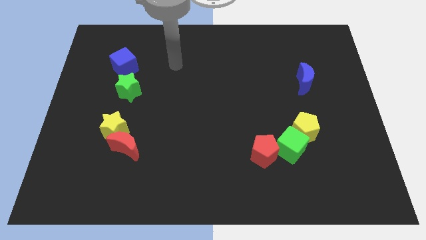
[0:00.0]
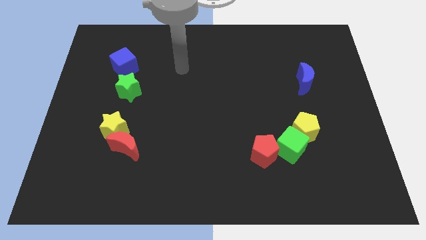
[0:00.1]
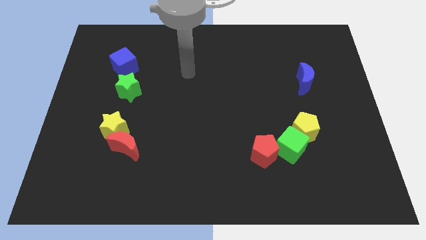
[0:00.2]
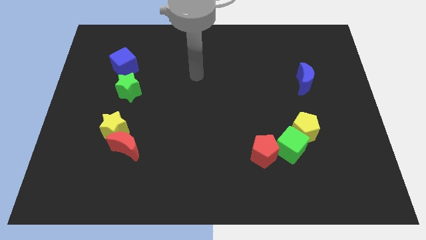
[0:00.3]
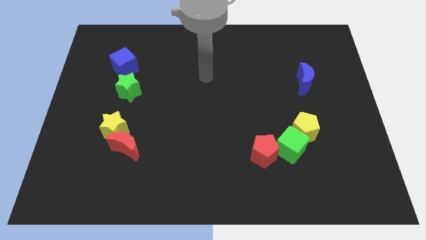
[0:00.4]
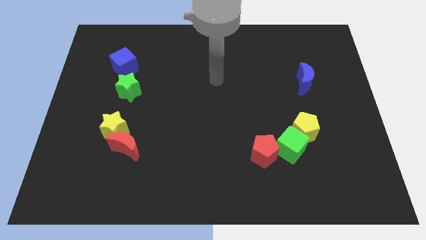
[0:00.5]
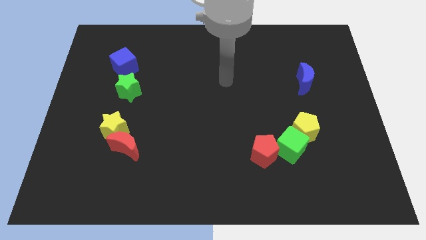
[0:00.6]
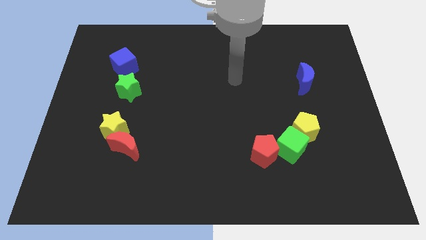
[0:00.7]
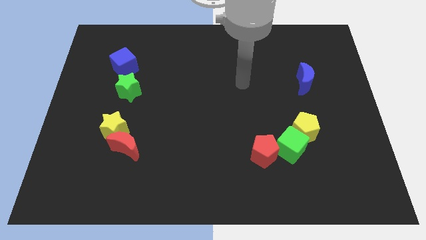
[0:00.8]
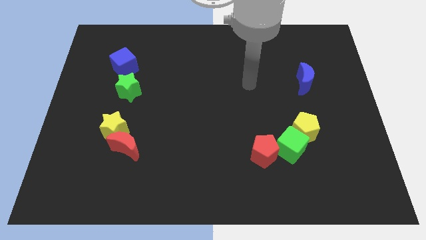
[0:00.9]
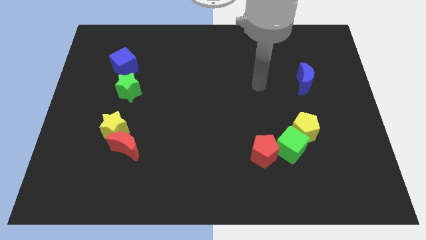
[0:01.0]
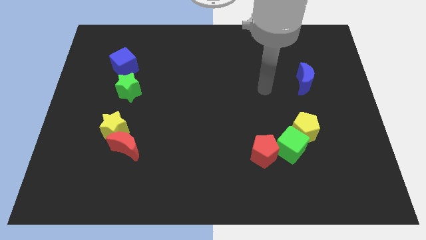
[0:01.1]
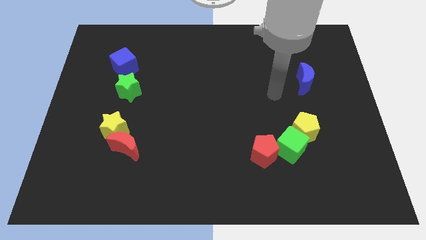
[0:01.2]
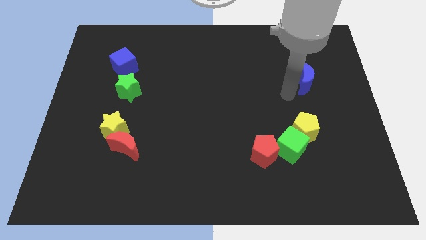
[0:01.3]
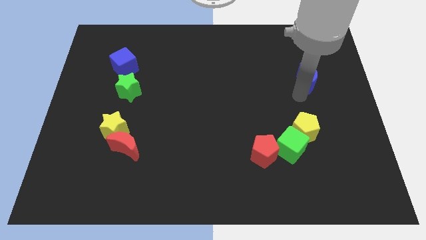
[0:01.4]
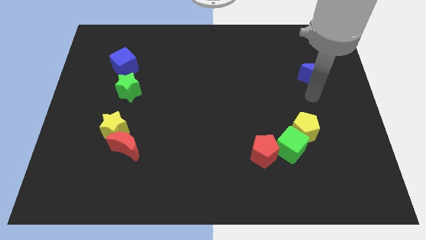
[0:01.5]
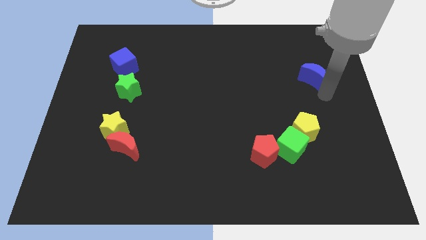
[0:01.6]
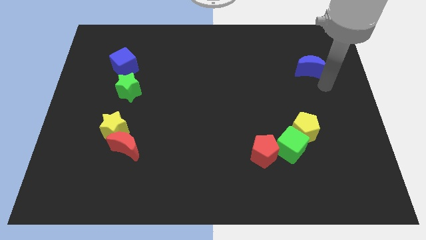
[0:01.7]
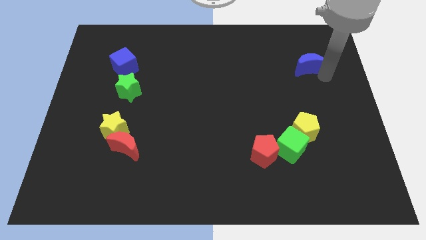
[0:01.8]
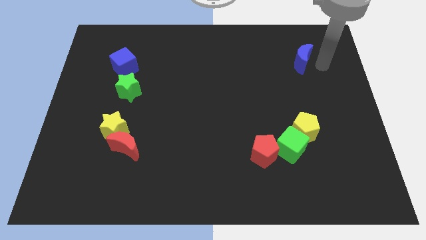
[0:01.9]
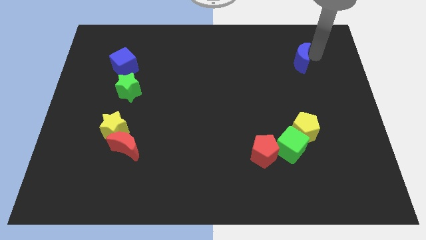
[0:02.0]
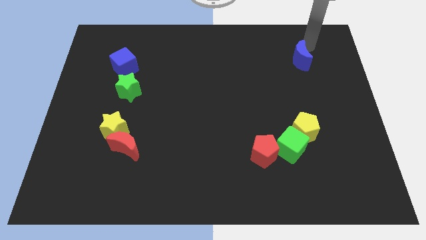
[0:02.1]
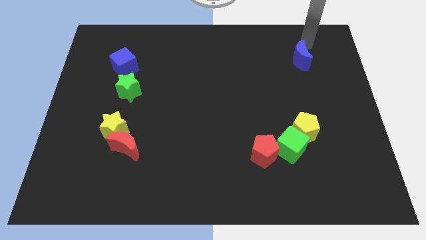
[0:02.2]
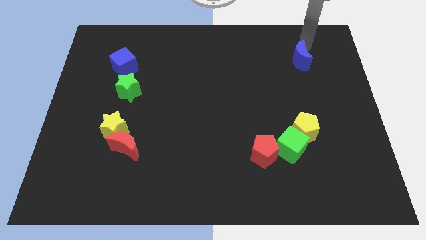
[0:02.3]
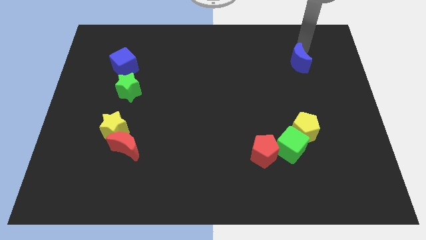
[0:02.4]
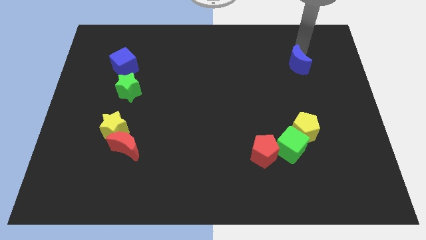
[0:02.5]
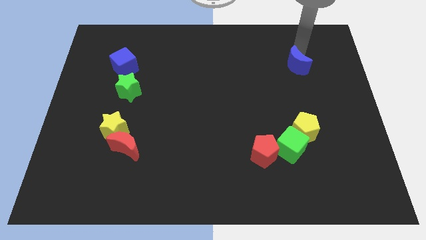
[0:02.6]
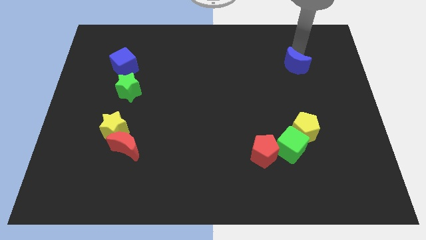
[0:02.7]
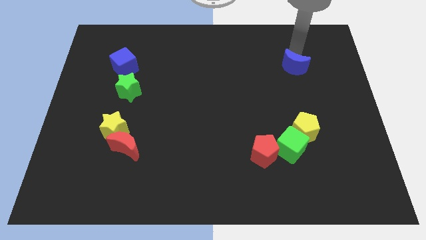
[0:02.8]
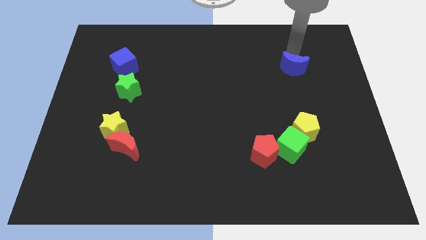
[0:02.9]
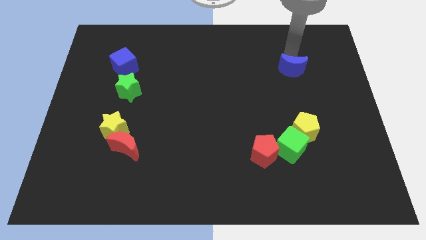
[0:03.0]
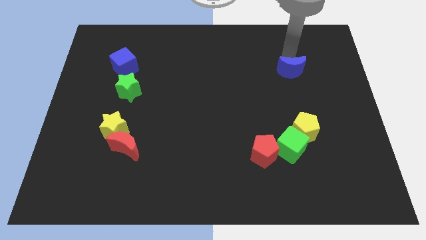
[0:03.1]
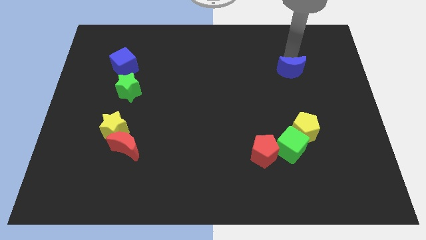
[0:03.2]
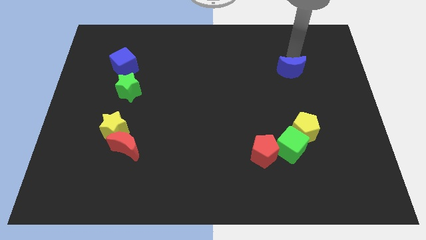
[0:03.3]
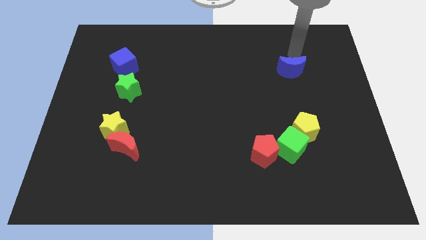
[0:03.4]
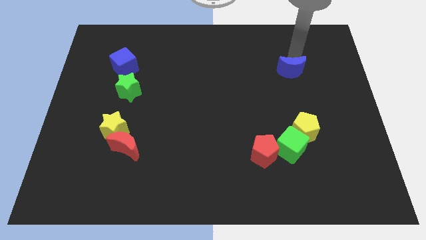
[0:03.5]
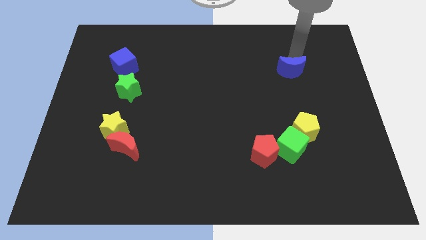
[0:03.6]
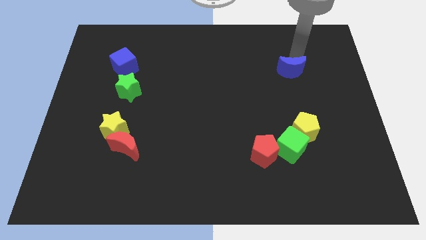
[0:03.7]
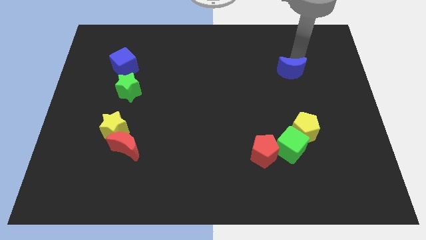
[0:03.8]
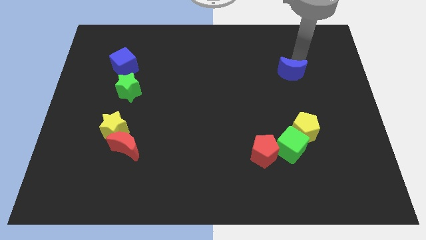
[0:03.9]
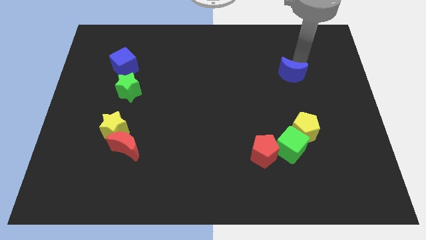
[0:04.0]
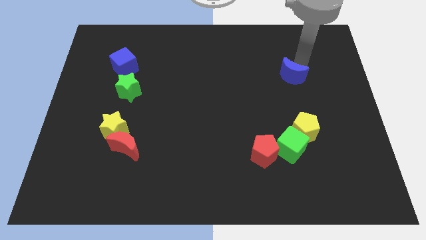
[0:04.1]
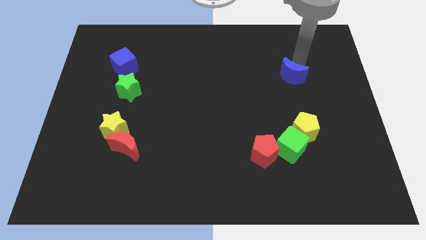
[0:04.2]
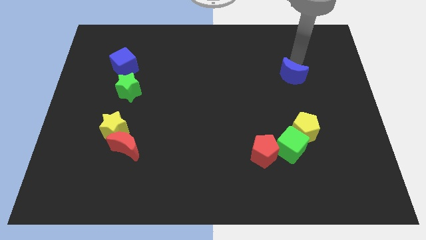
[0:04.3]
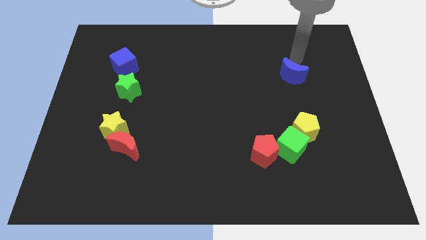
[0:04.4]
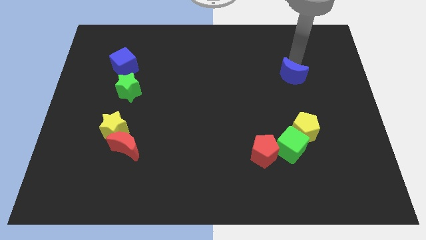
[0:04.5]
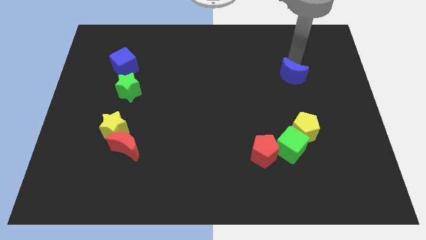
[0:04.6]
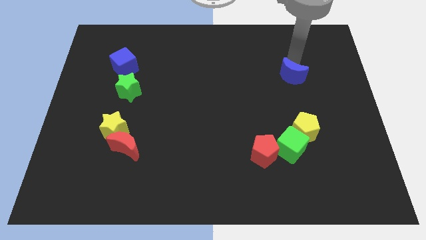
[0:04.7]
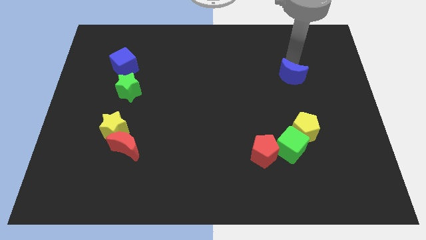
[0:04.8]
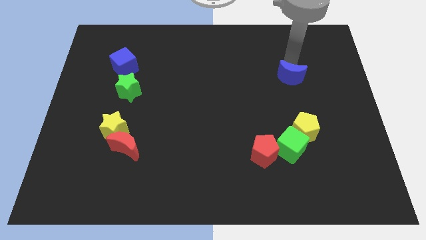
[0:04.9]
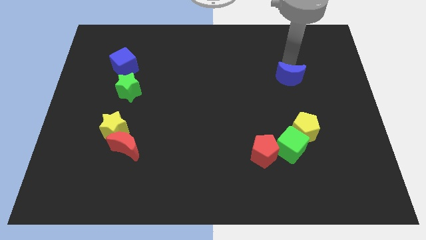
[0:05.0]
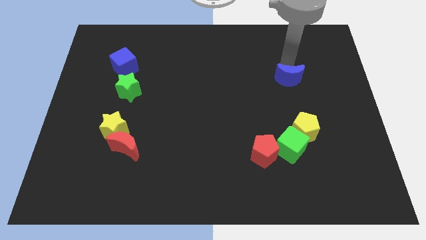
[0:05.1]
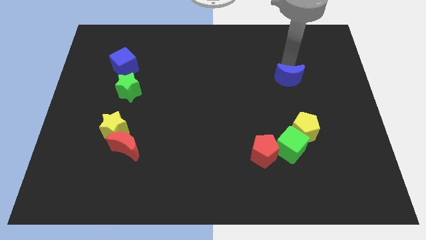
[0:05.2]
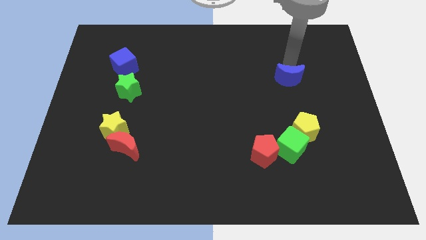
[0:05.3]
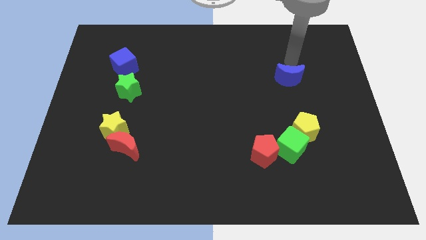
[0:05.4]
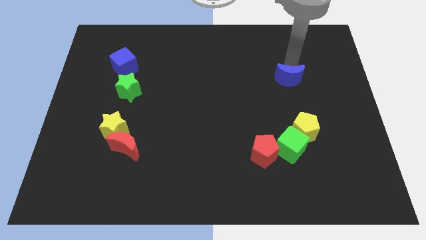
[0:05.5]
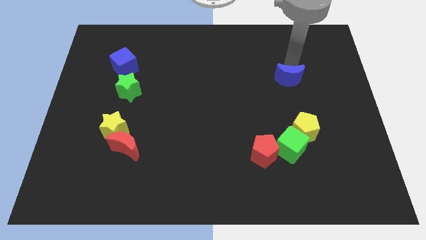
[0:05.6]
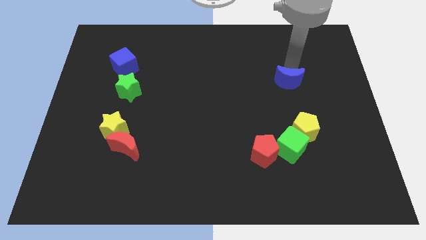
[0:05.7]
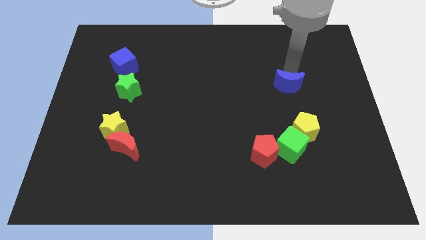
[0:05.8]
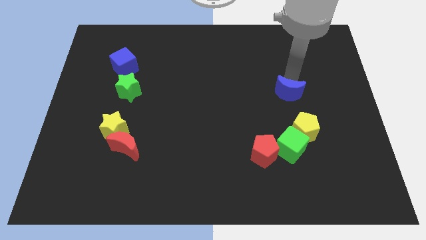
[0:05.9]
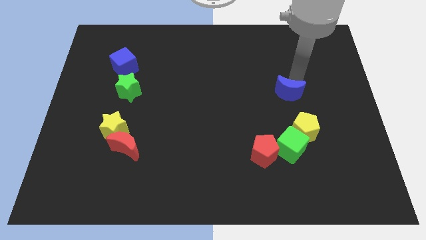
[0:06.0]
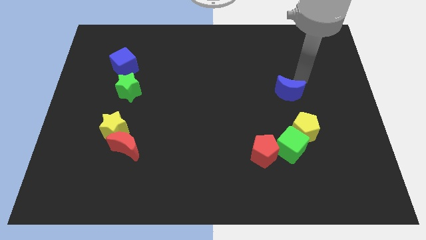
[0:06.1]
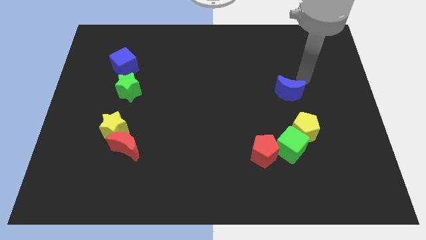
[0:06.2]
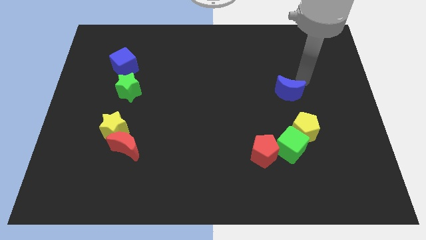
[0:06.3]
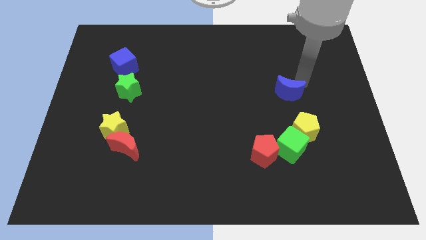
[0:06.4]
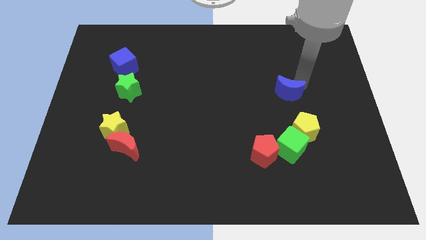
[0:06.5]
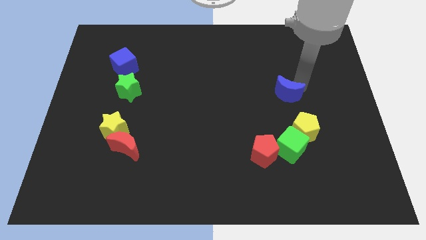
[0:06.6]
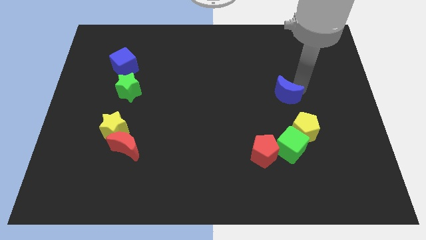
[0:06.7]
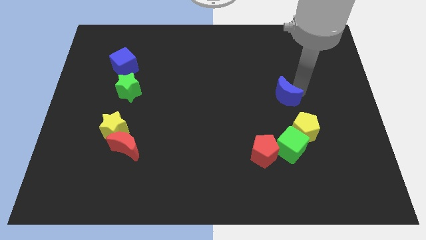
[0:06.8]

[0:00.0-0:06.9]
slide the blue moon down and to the left a little bit

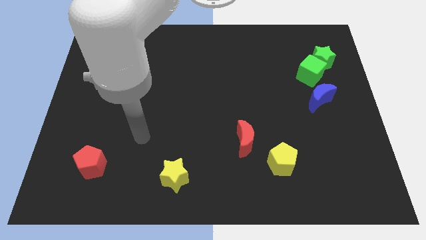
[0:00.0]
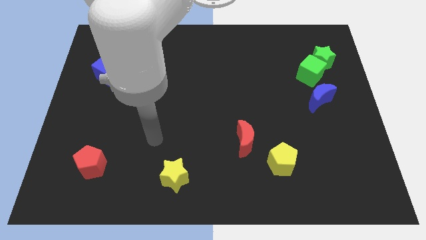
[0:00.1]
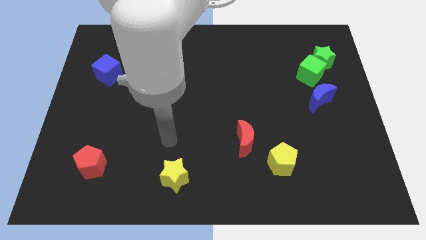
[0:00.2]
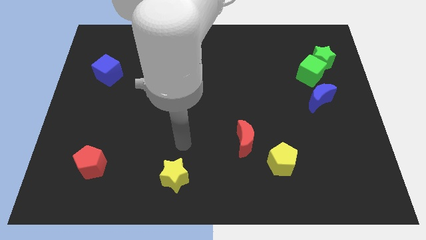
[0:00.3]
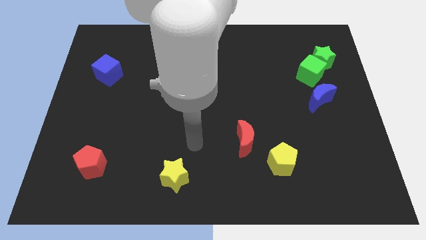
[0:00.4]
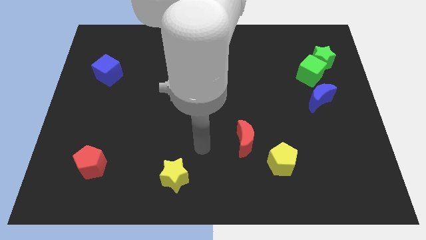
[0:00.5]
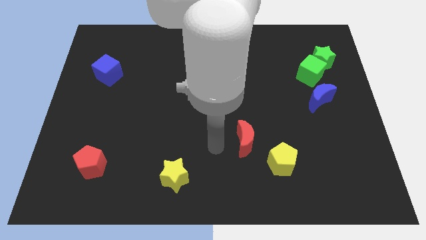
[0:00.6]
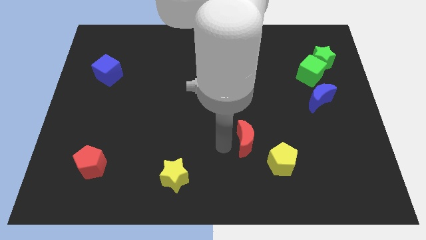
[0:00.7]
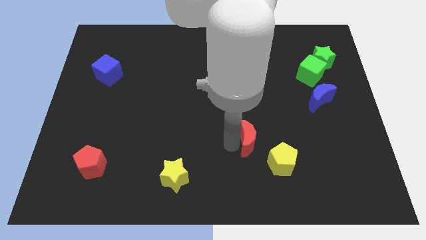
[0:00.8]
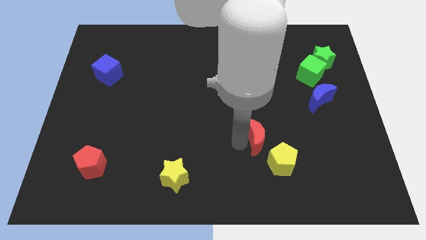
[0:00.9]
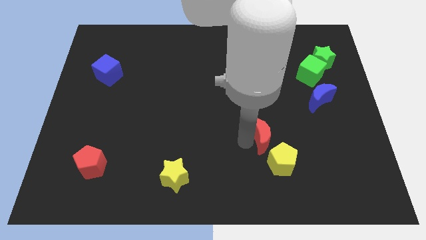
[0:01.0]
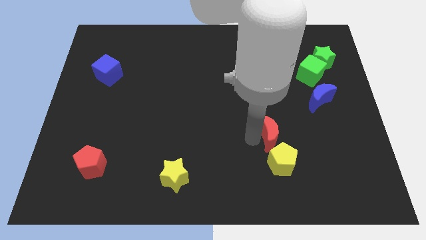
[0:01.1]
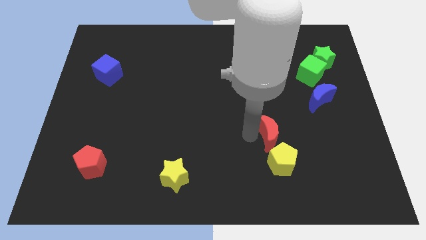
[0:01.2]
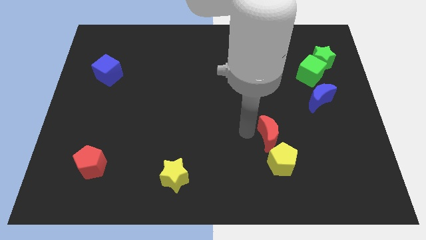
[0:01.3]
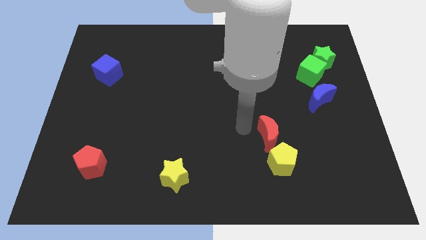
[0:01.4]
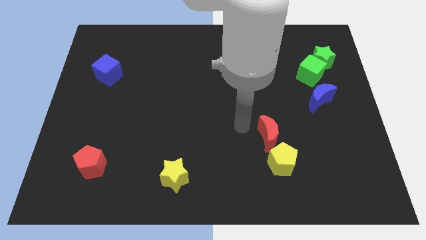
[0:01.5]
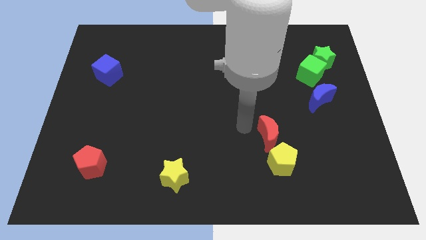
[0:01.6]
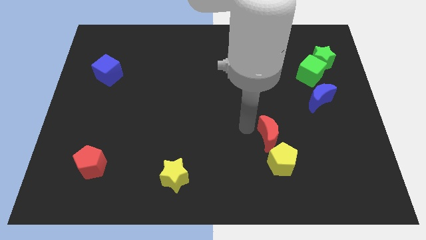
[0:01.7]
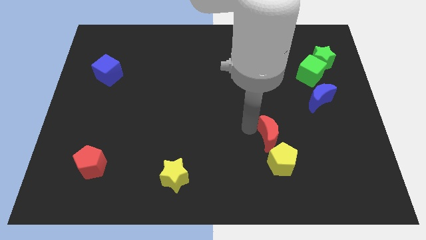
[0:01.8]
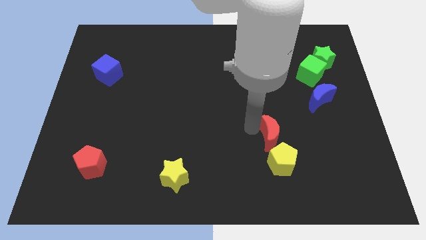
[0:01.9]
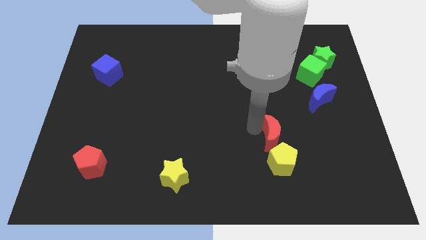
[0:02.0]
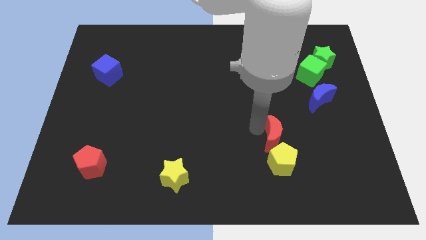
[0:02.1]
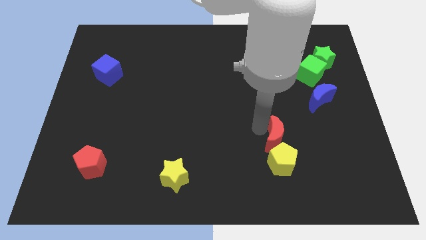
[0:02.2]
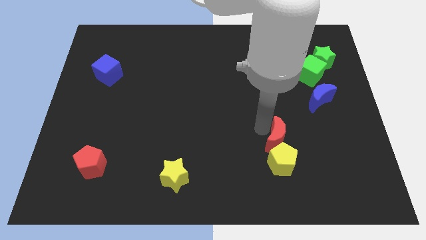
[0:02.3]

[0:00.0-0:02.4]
slide the red moon slightly right
